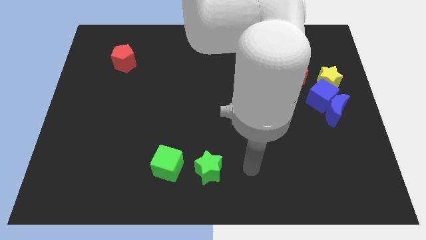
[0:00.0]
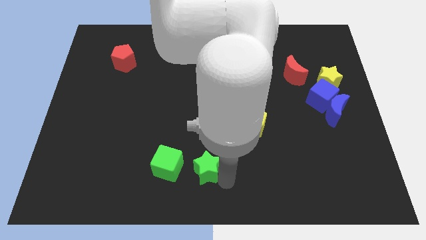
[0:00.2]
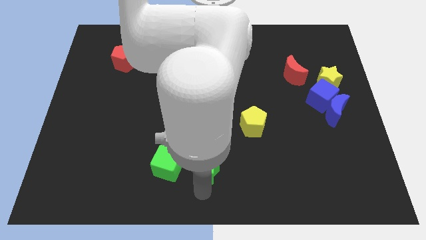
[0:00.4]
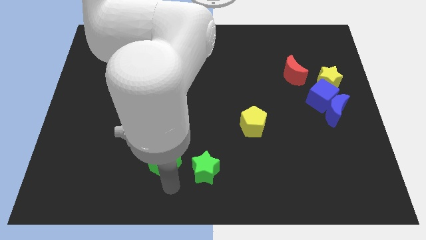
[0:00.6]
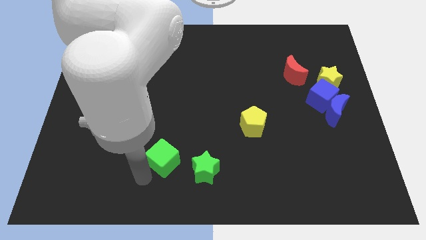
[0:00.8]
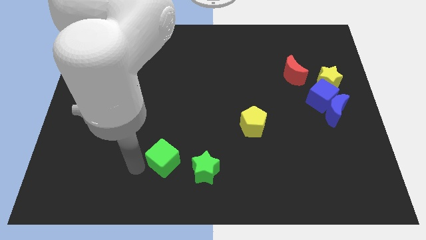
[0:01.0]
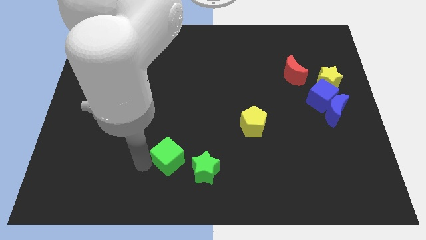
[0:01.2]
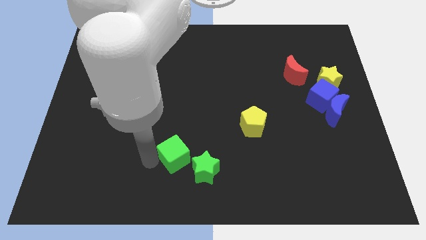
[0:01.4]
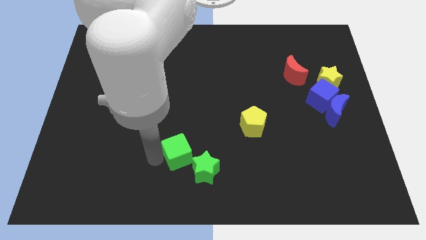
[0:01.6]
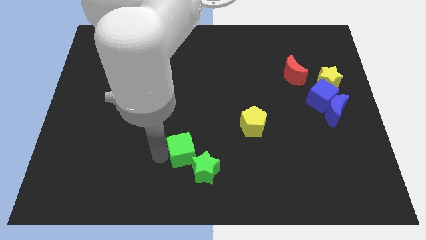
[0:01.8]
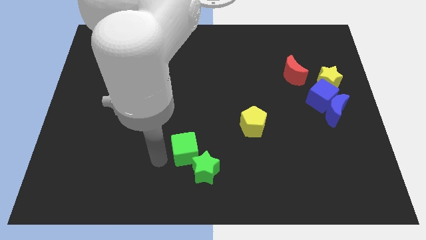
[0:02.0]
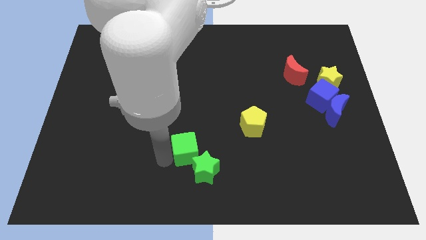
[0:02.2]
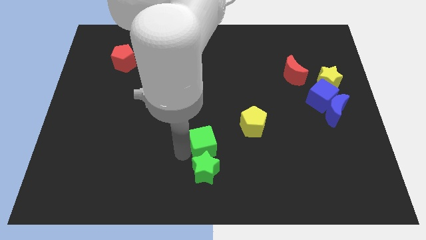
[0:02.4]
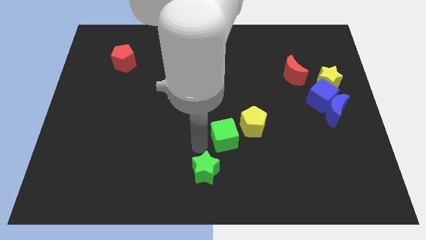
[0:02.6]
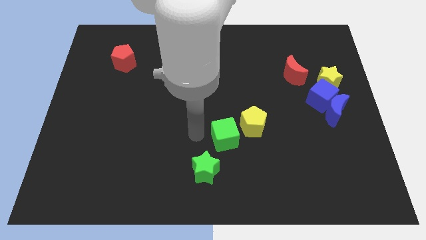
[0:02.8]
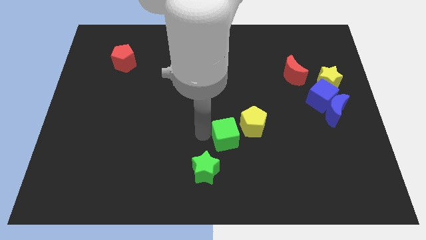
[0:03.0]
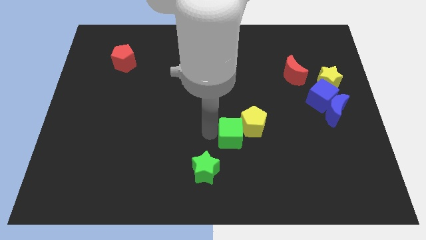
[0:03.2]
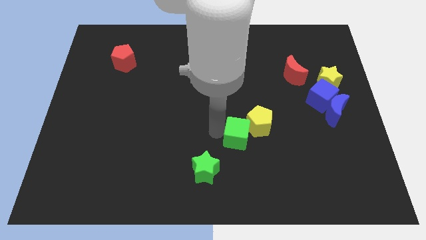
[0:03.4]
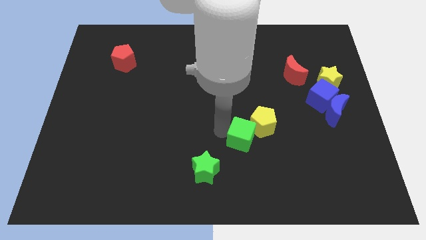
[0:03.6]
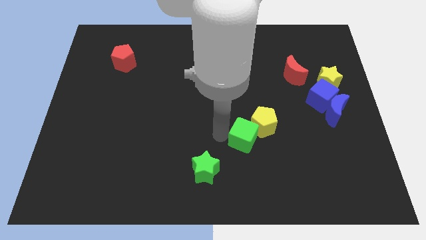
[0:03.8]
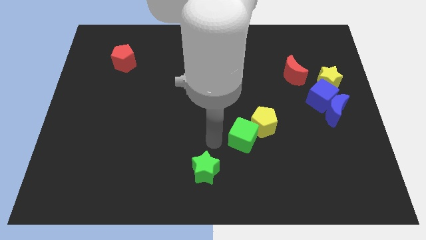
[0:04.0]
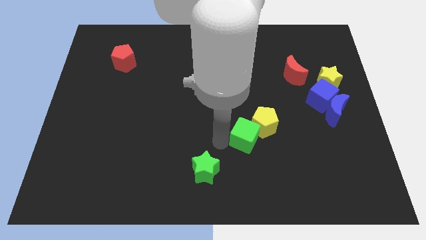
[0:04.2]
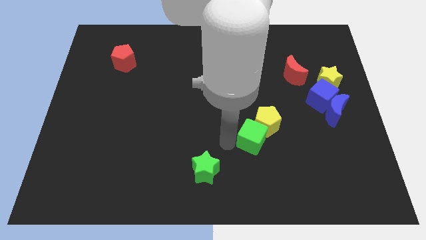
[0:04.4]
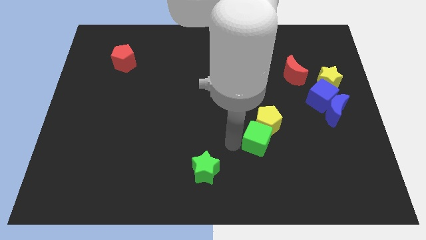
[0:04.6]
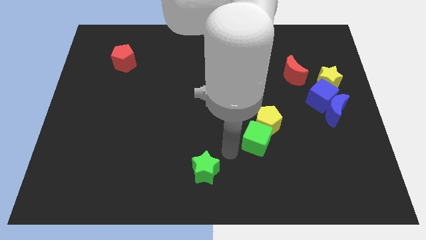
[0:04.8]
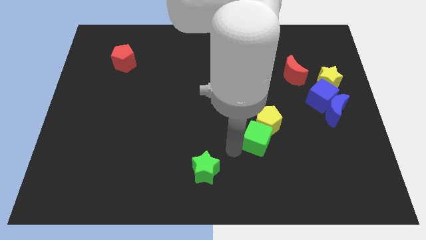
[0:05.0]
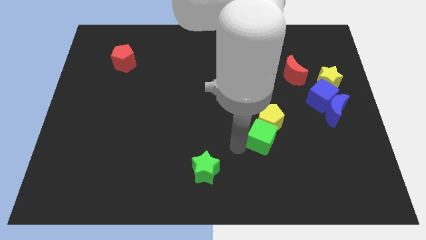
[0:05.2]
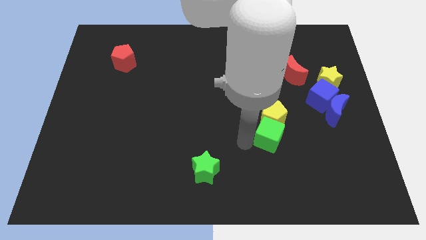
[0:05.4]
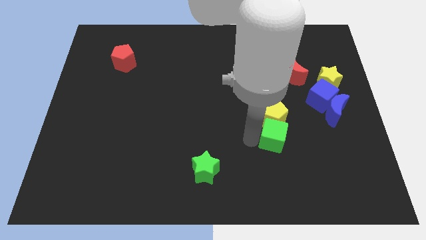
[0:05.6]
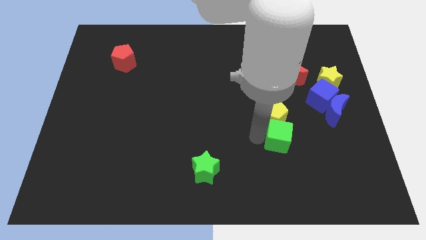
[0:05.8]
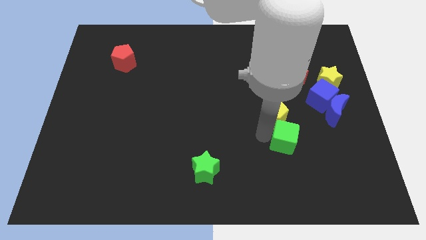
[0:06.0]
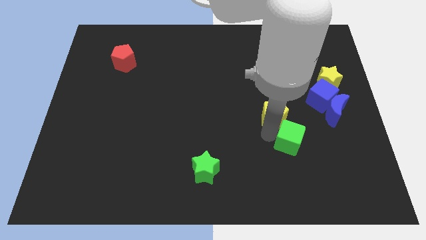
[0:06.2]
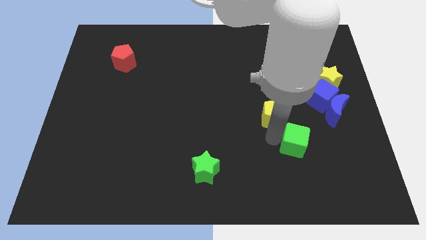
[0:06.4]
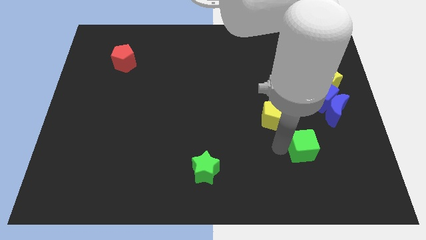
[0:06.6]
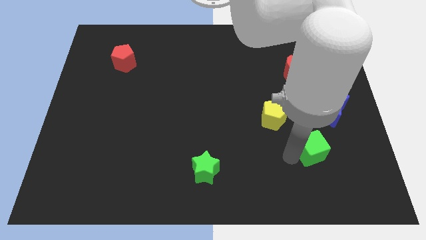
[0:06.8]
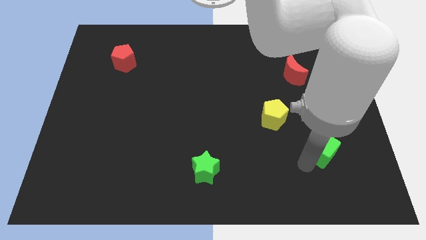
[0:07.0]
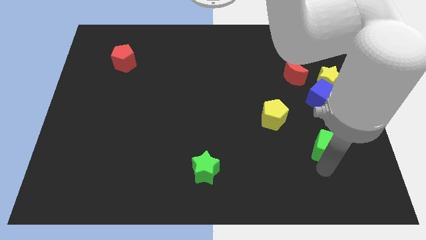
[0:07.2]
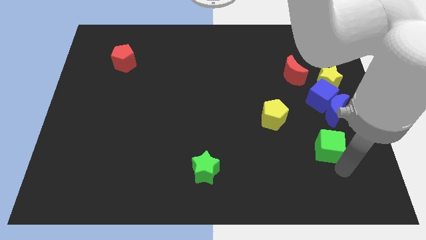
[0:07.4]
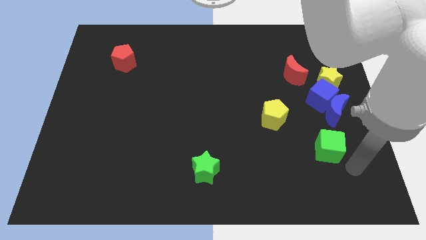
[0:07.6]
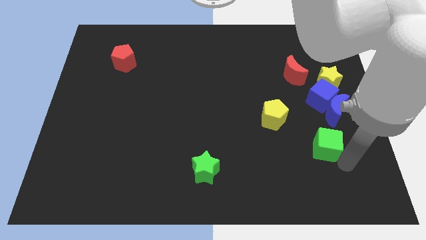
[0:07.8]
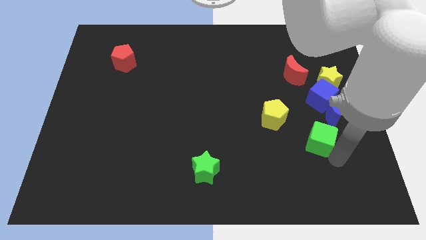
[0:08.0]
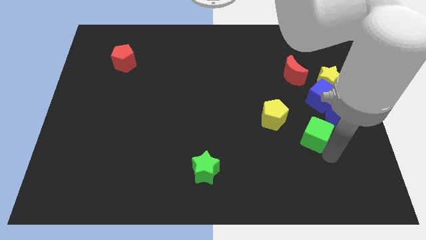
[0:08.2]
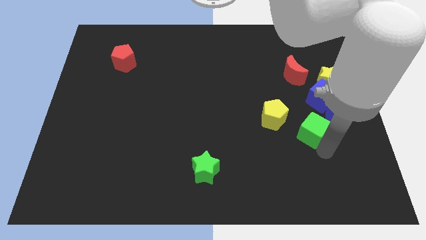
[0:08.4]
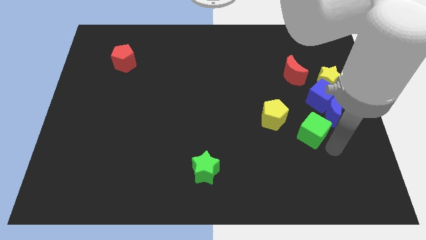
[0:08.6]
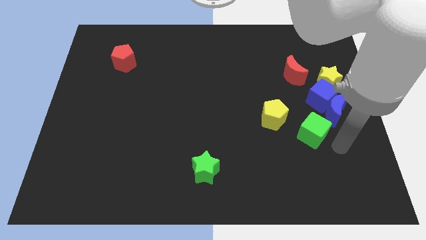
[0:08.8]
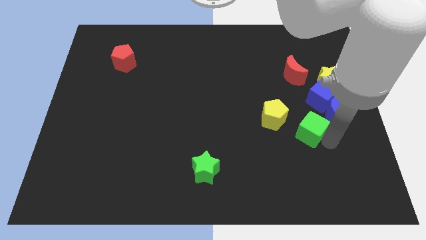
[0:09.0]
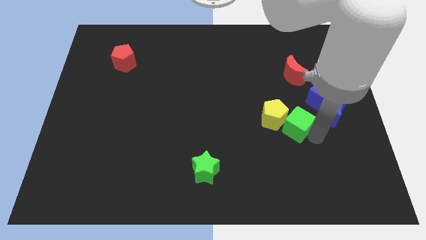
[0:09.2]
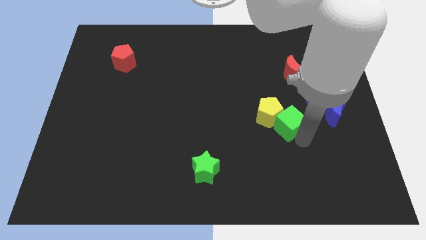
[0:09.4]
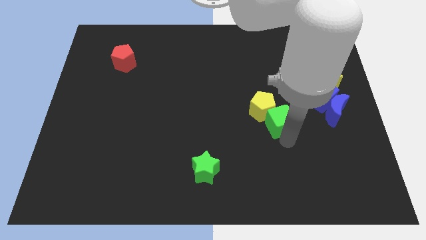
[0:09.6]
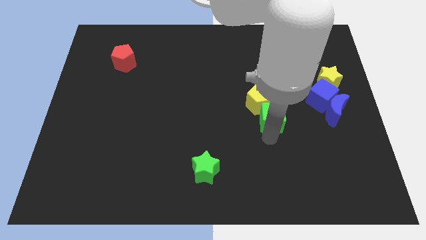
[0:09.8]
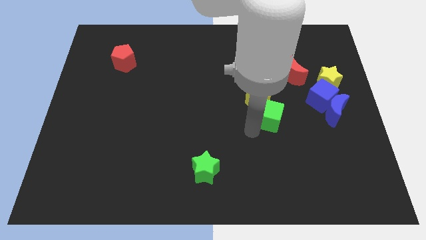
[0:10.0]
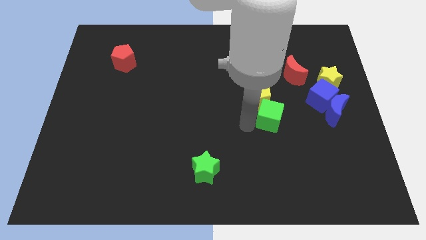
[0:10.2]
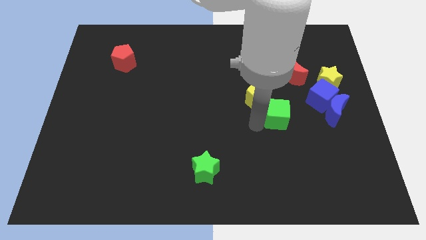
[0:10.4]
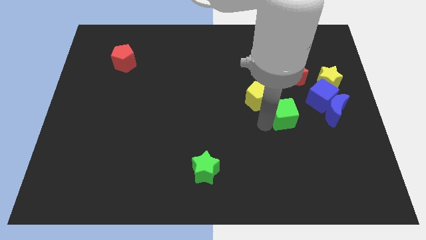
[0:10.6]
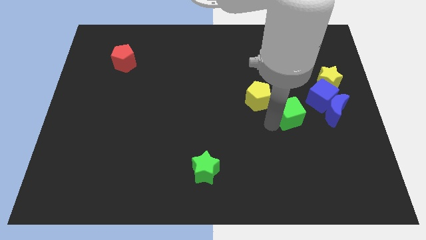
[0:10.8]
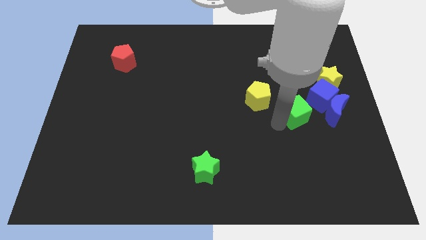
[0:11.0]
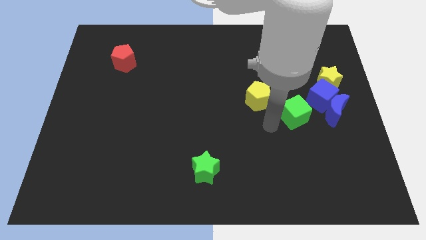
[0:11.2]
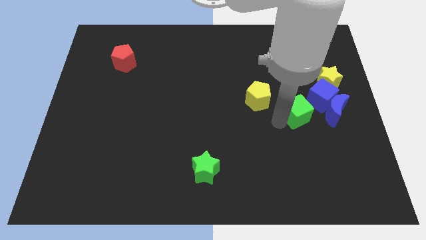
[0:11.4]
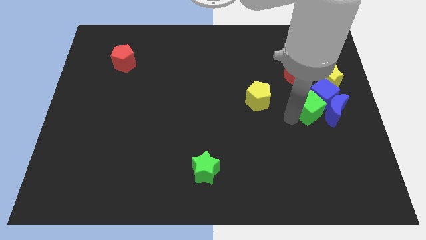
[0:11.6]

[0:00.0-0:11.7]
push the green cube next to the blue cube

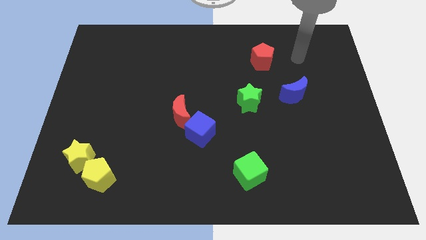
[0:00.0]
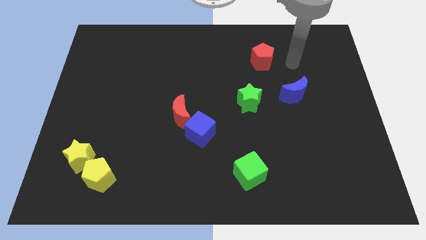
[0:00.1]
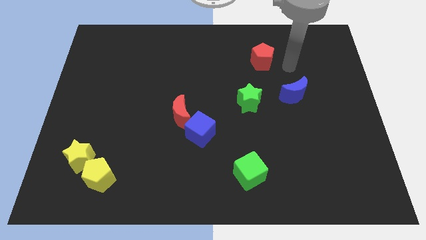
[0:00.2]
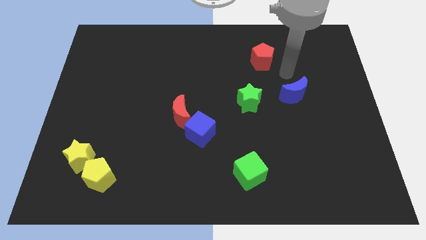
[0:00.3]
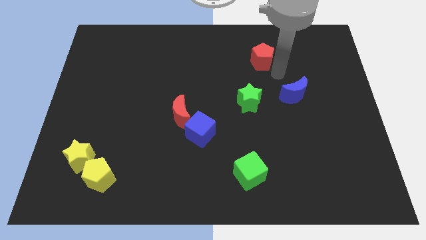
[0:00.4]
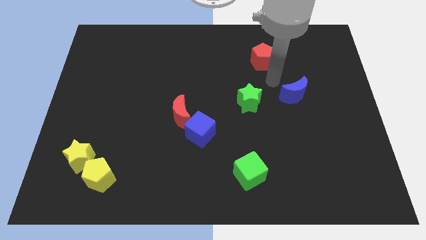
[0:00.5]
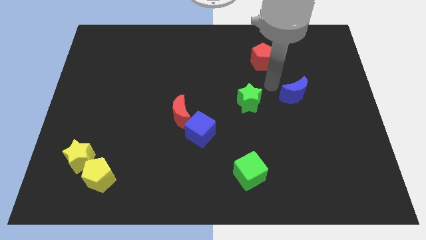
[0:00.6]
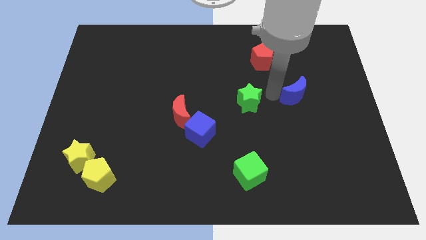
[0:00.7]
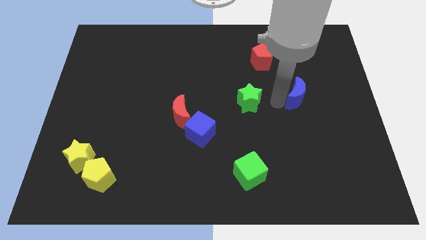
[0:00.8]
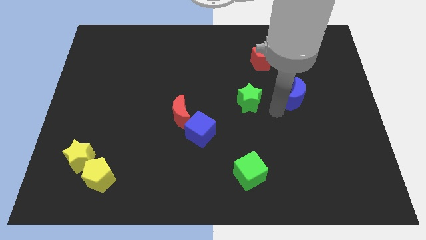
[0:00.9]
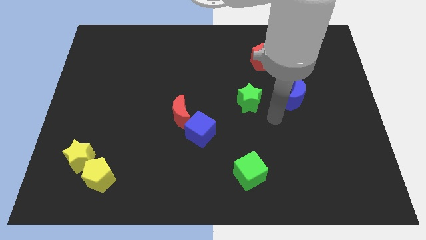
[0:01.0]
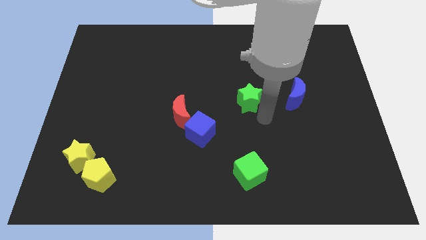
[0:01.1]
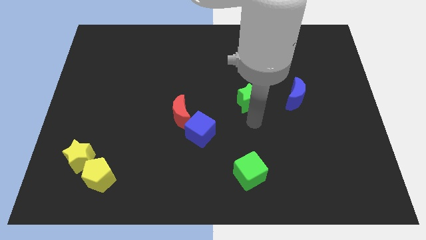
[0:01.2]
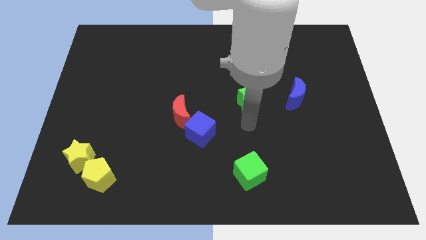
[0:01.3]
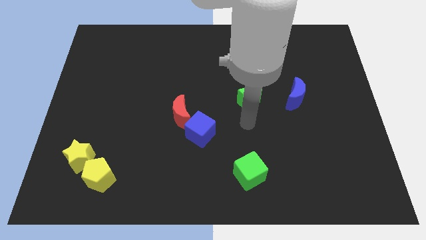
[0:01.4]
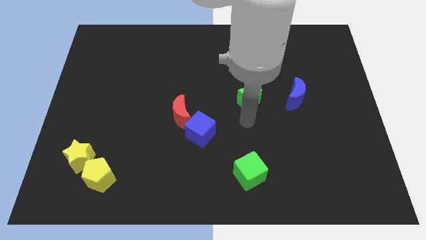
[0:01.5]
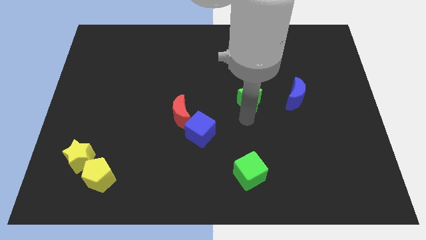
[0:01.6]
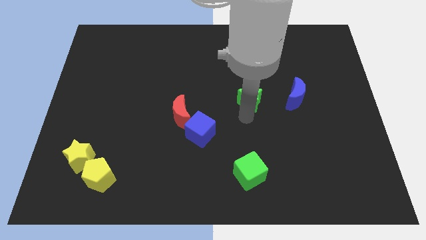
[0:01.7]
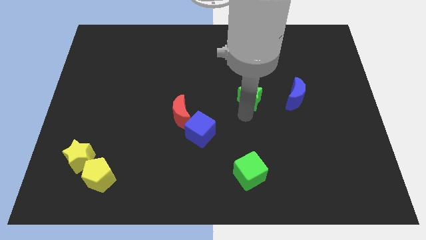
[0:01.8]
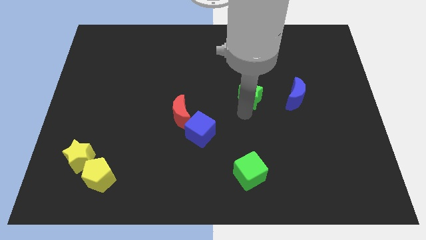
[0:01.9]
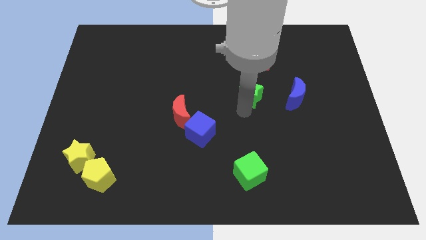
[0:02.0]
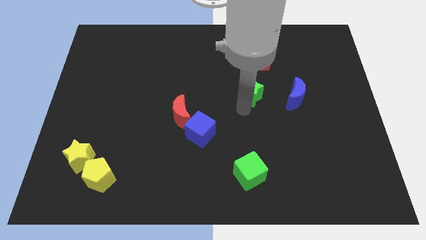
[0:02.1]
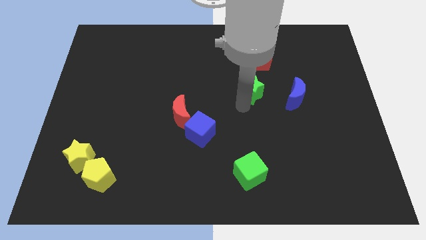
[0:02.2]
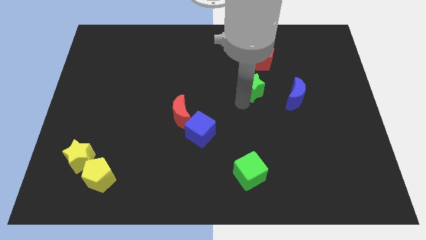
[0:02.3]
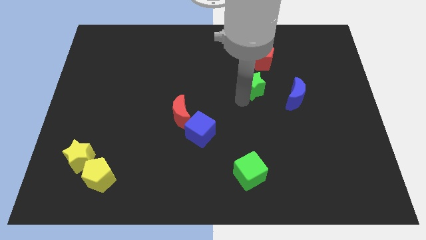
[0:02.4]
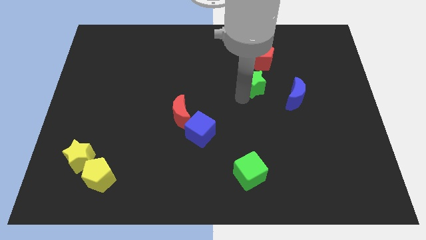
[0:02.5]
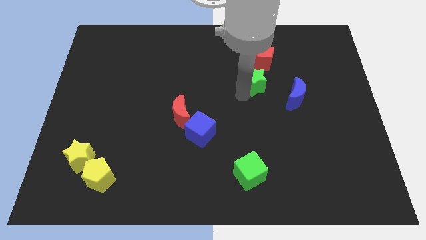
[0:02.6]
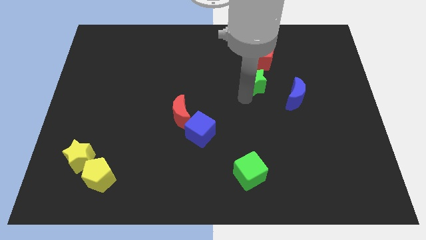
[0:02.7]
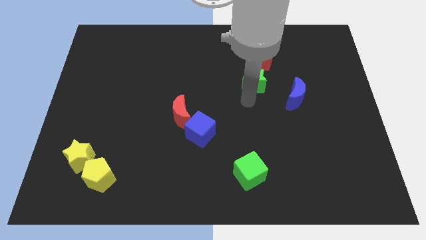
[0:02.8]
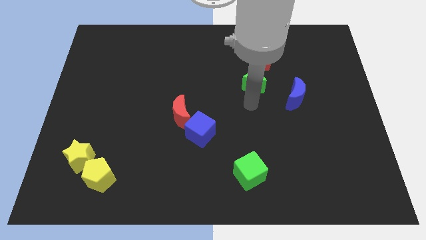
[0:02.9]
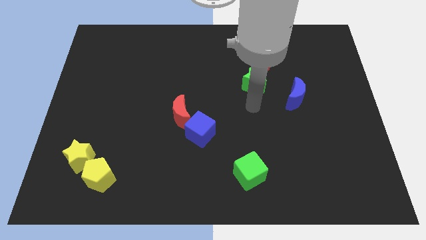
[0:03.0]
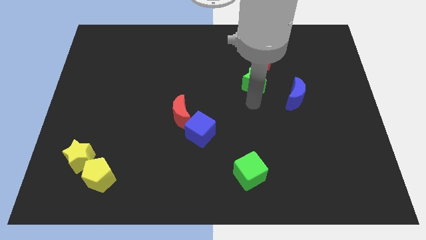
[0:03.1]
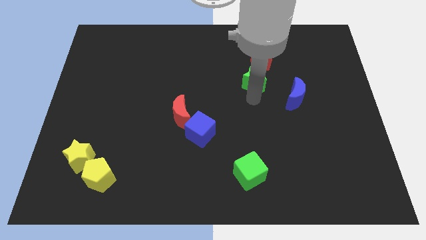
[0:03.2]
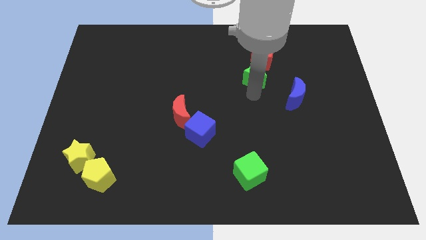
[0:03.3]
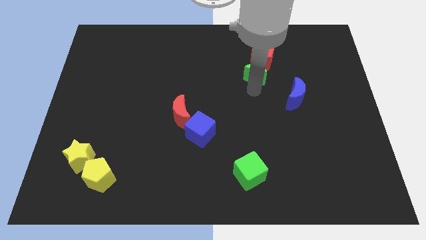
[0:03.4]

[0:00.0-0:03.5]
push the green star next to the red pentagon
